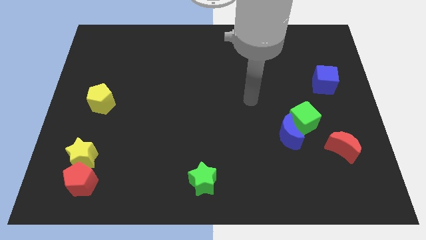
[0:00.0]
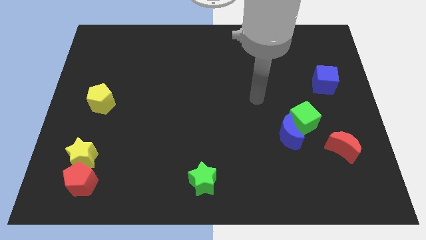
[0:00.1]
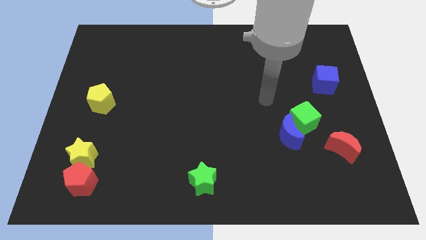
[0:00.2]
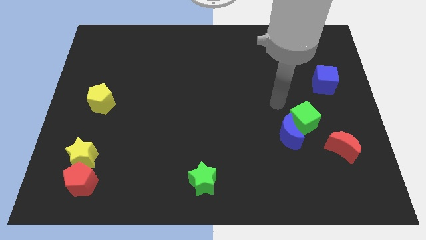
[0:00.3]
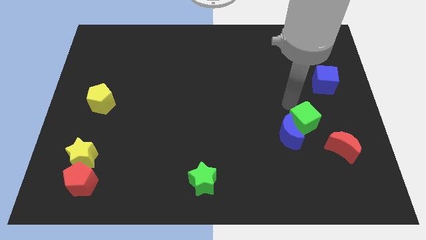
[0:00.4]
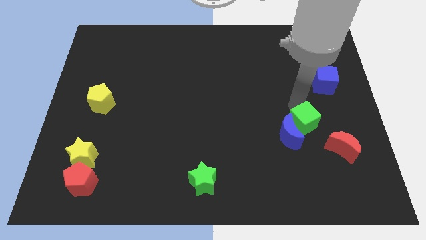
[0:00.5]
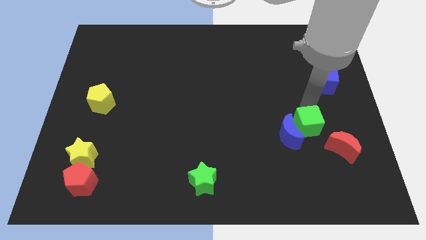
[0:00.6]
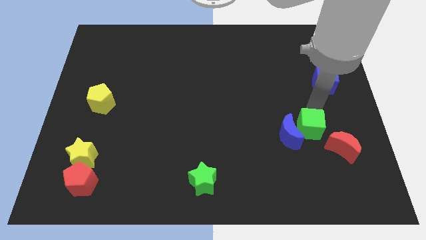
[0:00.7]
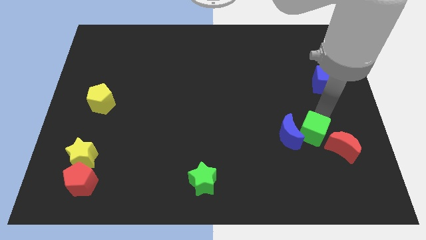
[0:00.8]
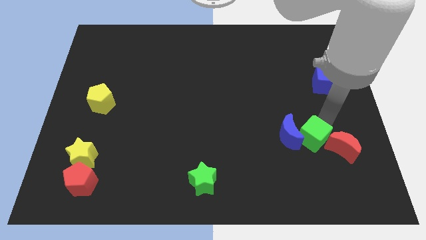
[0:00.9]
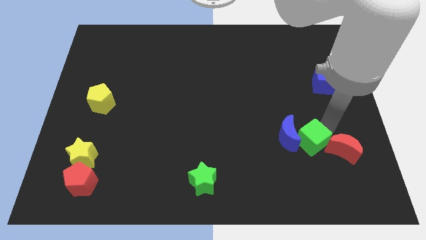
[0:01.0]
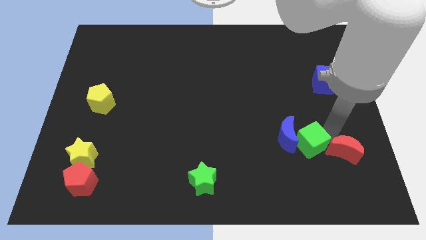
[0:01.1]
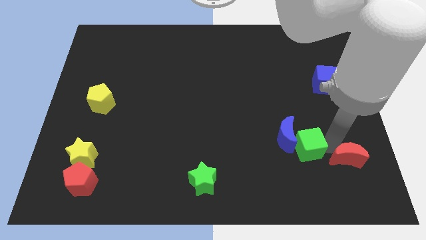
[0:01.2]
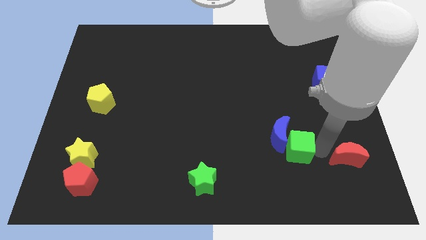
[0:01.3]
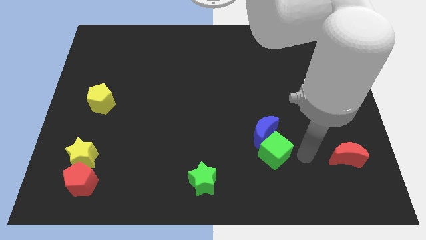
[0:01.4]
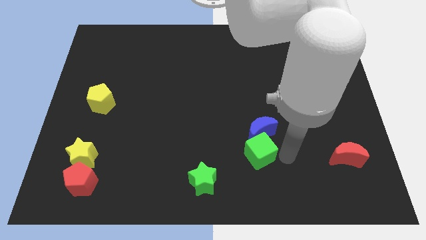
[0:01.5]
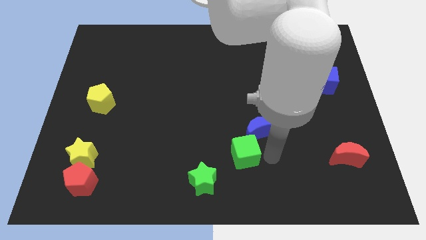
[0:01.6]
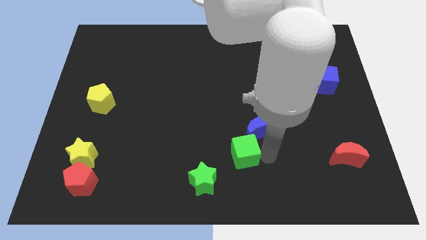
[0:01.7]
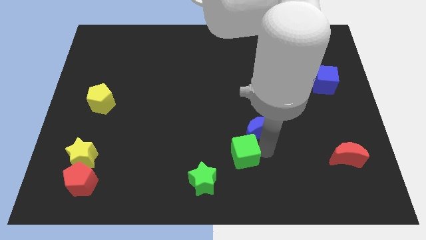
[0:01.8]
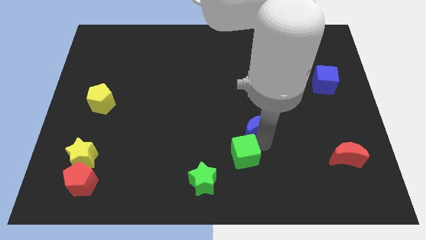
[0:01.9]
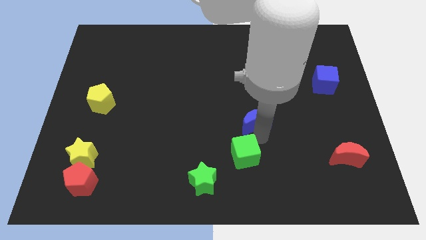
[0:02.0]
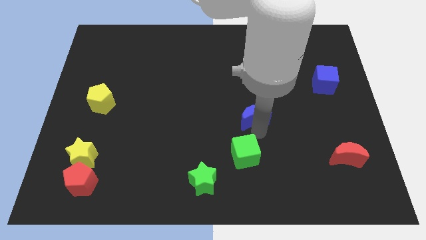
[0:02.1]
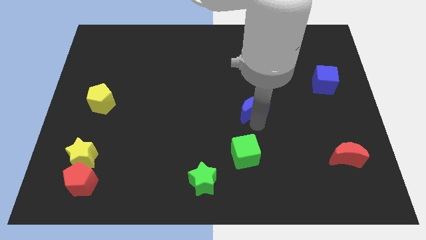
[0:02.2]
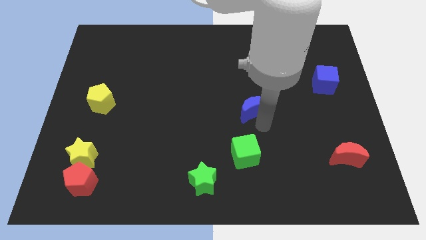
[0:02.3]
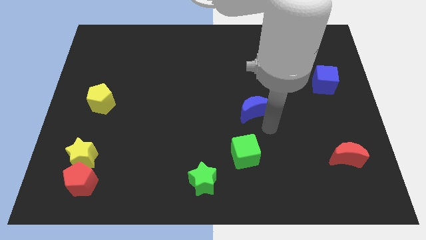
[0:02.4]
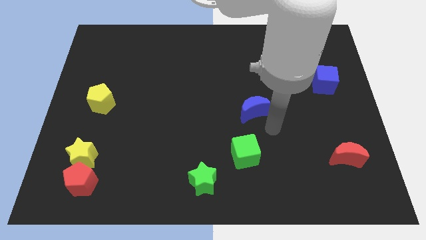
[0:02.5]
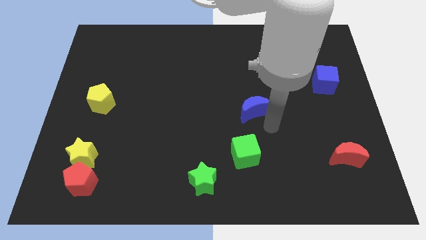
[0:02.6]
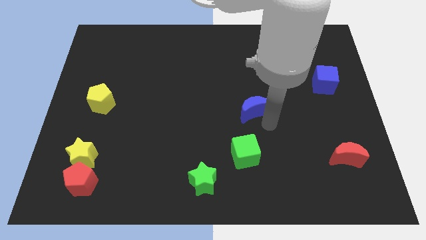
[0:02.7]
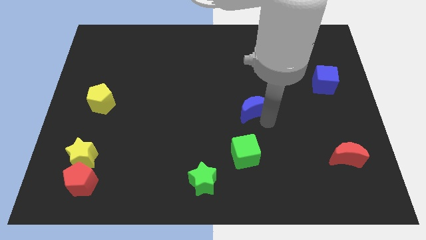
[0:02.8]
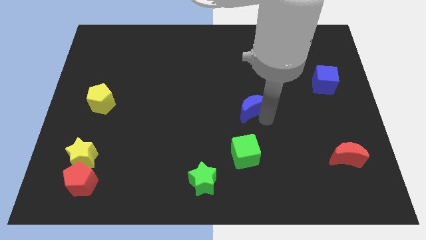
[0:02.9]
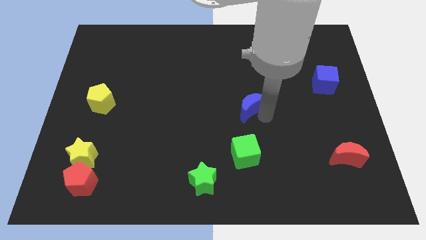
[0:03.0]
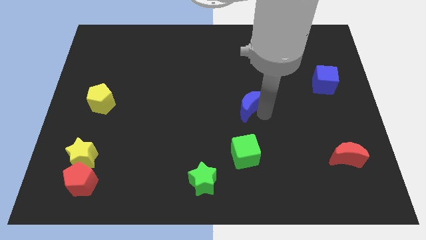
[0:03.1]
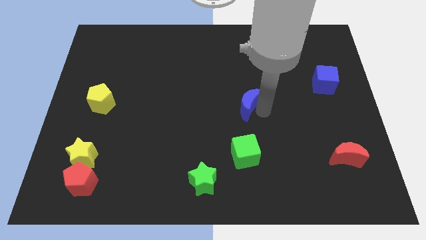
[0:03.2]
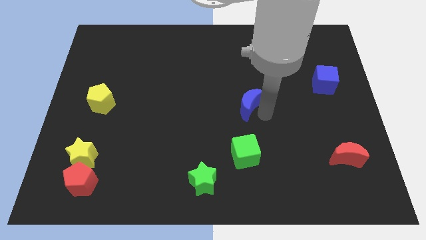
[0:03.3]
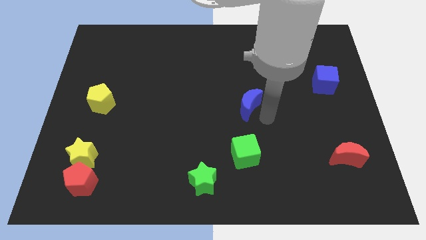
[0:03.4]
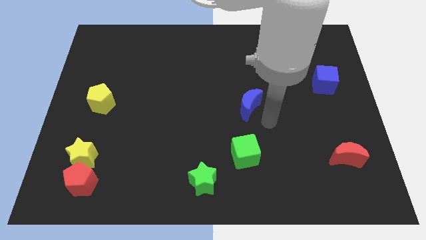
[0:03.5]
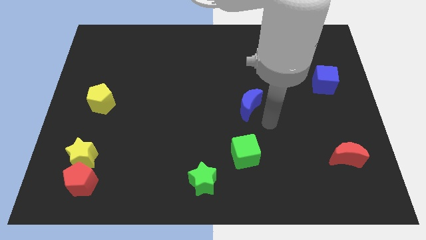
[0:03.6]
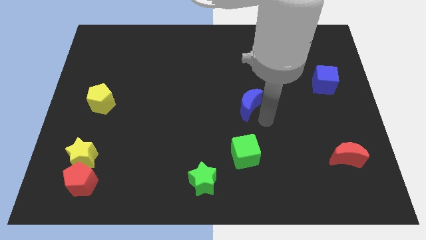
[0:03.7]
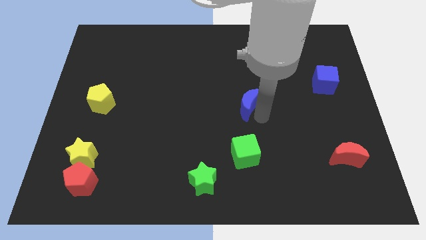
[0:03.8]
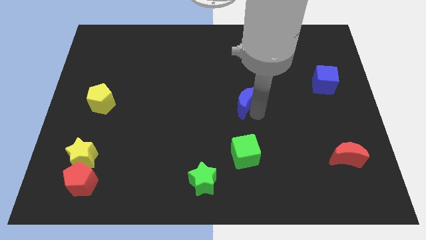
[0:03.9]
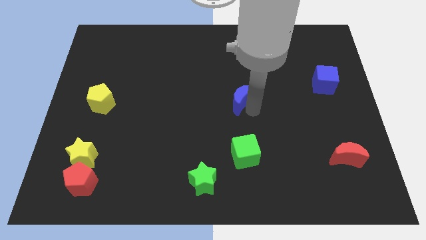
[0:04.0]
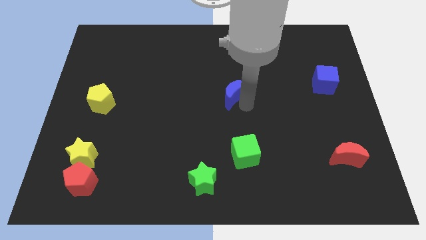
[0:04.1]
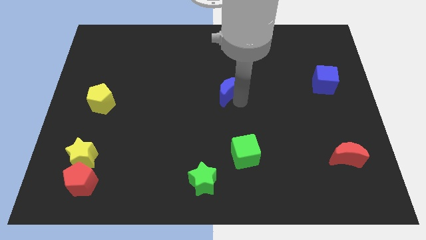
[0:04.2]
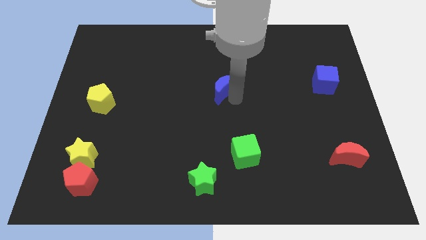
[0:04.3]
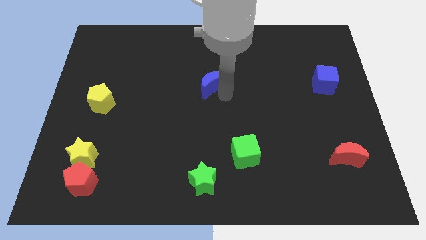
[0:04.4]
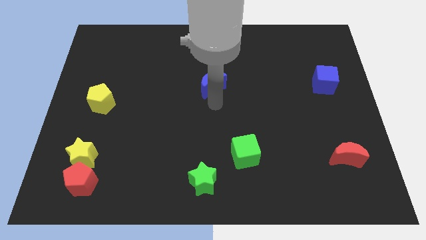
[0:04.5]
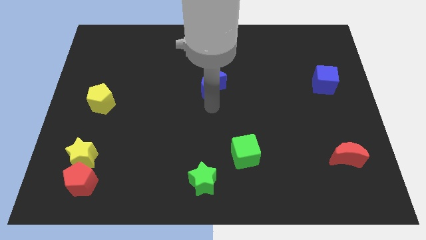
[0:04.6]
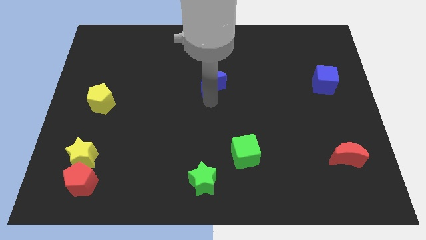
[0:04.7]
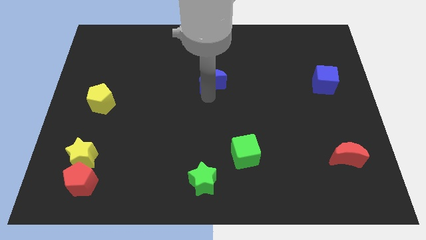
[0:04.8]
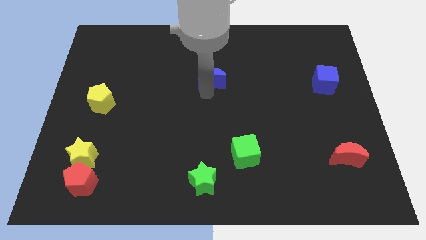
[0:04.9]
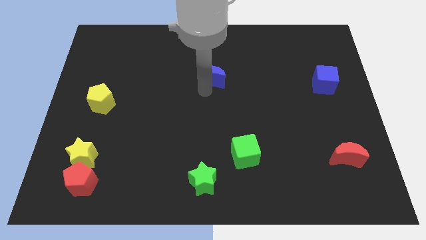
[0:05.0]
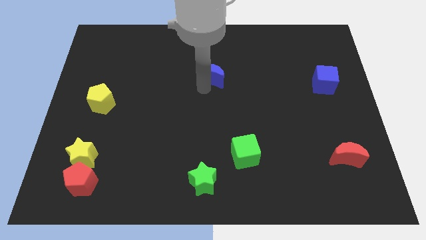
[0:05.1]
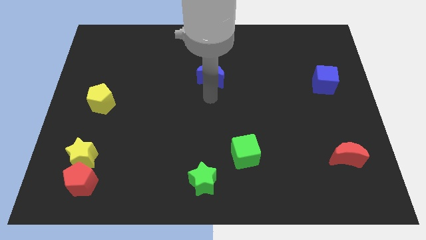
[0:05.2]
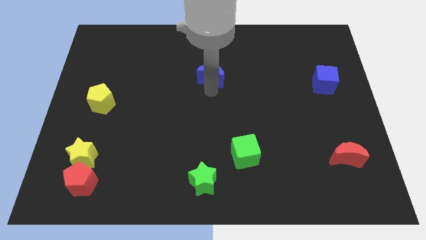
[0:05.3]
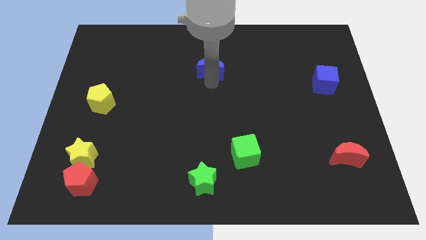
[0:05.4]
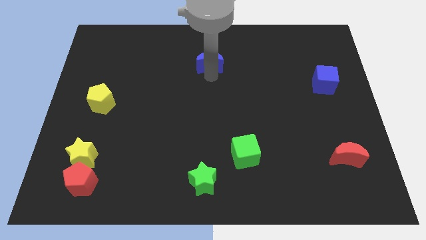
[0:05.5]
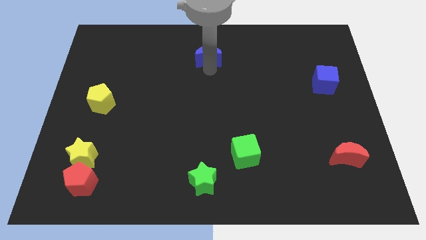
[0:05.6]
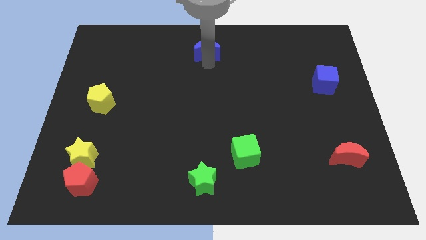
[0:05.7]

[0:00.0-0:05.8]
put the blue moon to the top side
